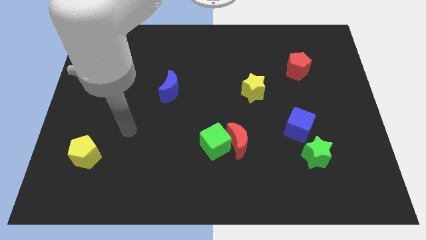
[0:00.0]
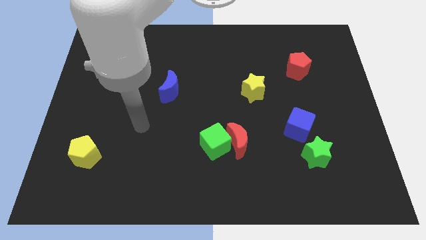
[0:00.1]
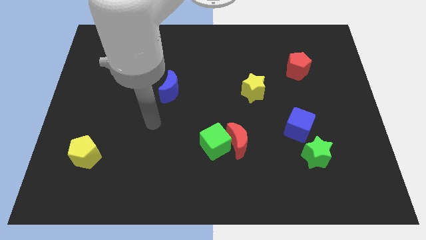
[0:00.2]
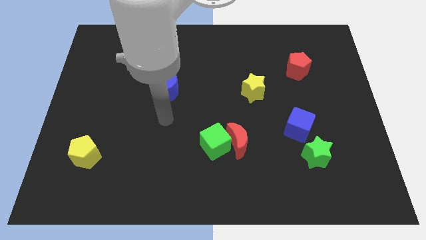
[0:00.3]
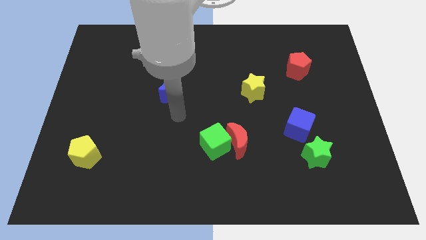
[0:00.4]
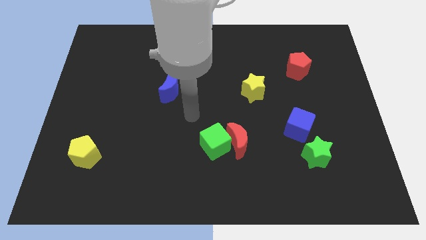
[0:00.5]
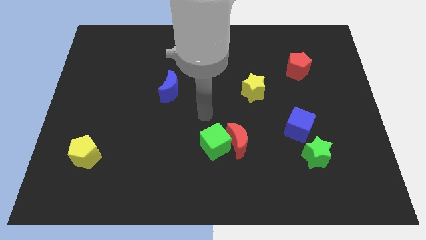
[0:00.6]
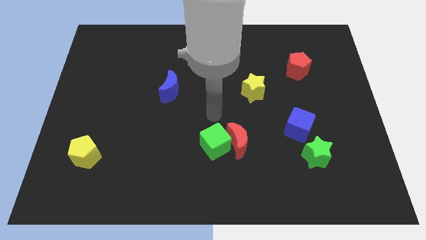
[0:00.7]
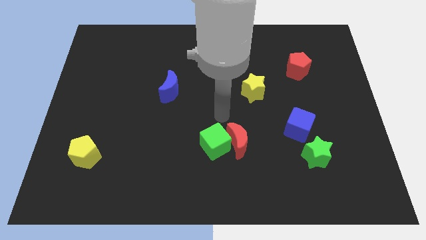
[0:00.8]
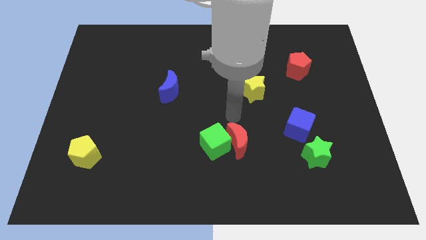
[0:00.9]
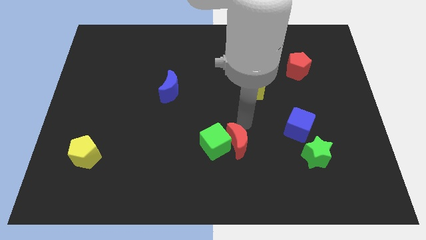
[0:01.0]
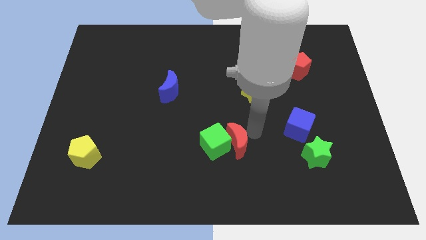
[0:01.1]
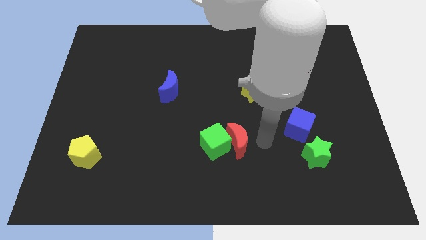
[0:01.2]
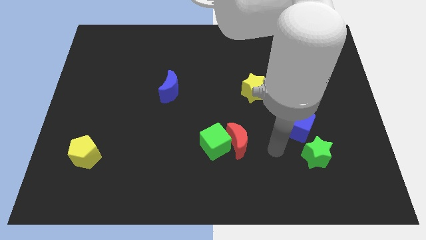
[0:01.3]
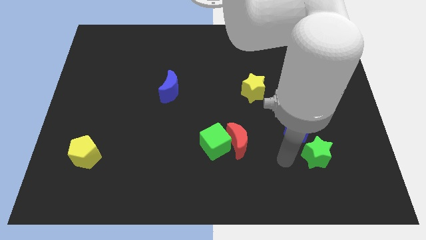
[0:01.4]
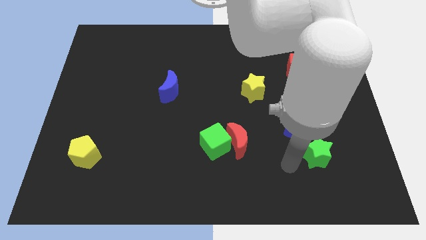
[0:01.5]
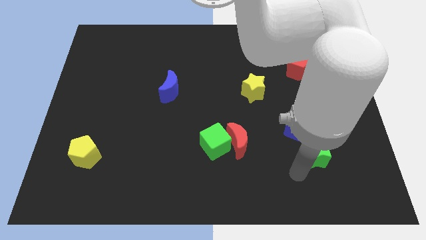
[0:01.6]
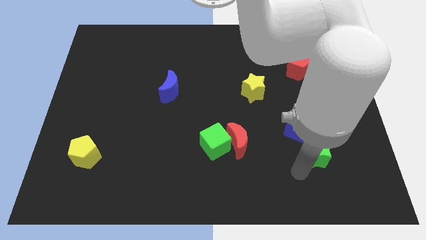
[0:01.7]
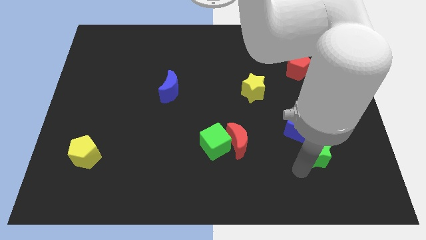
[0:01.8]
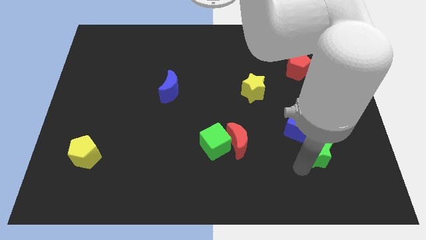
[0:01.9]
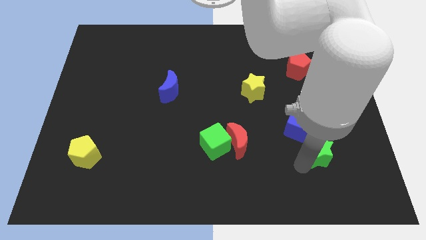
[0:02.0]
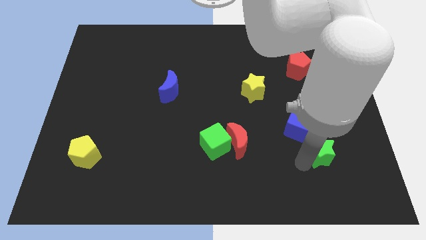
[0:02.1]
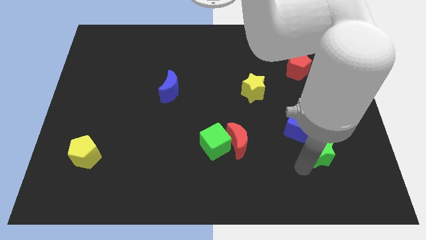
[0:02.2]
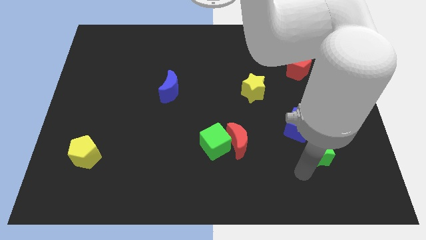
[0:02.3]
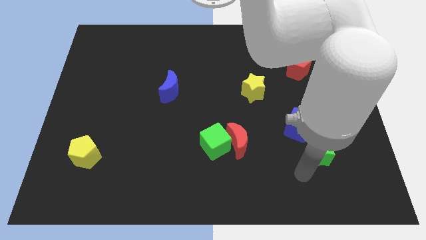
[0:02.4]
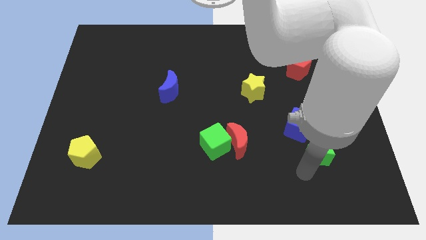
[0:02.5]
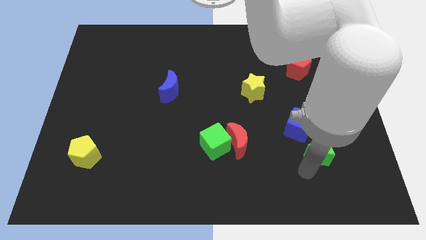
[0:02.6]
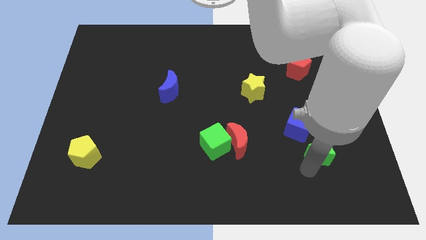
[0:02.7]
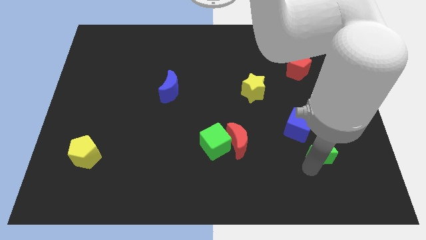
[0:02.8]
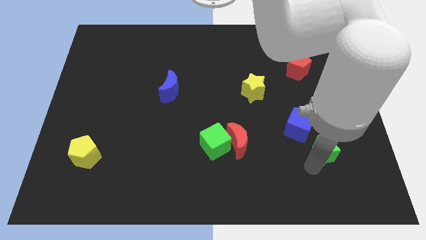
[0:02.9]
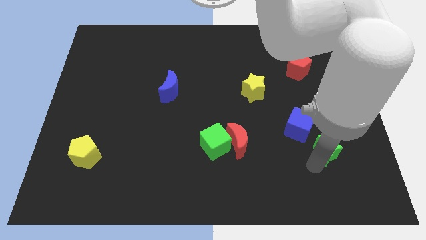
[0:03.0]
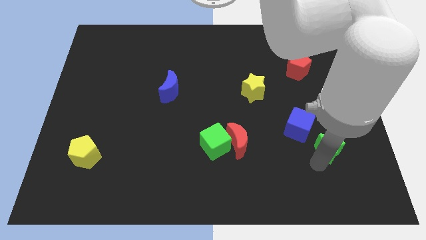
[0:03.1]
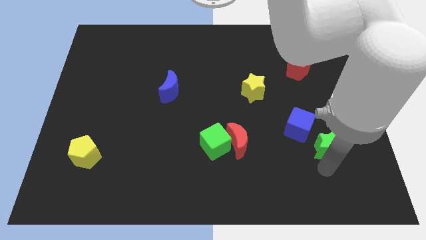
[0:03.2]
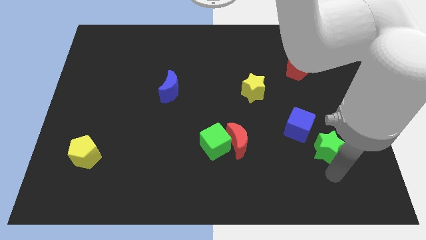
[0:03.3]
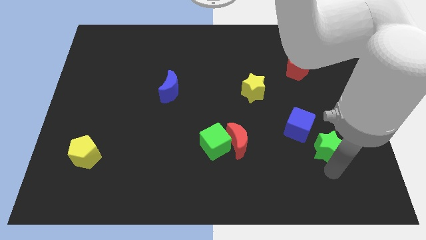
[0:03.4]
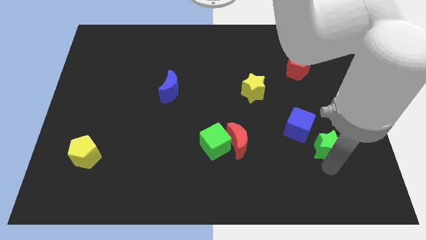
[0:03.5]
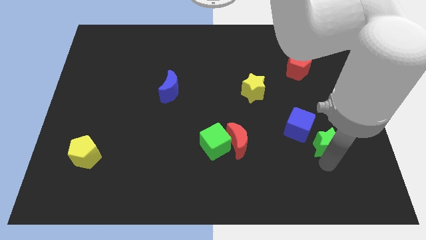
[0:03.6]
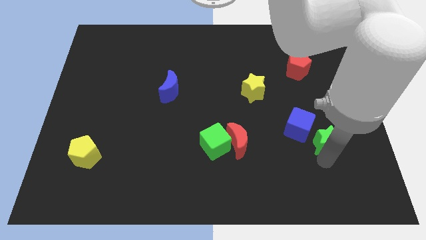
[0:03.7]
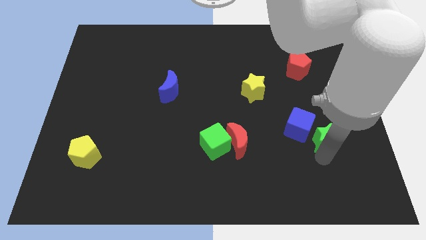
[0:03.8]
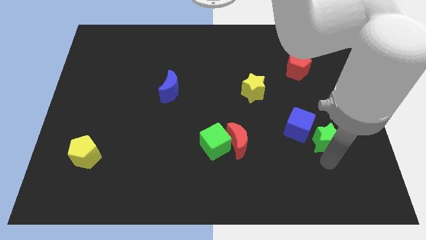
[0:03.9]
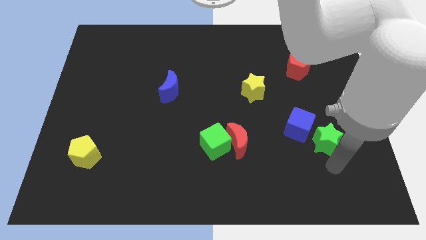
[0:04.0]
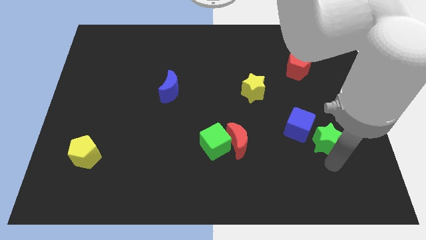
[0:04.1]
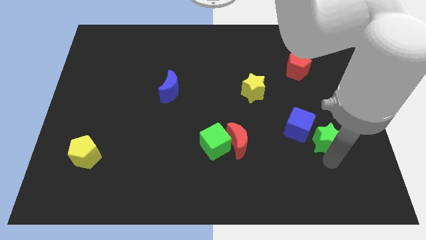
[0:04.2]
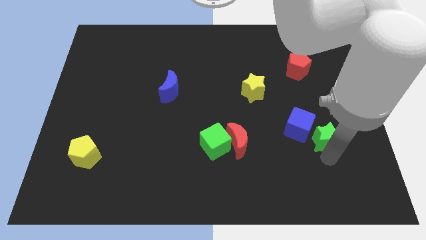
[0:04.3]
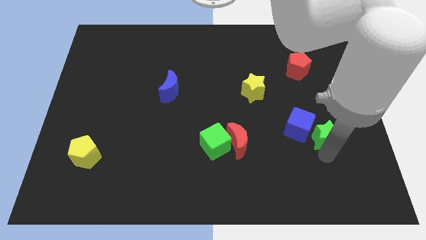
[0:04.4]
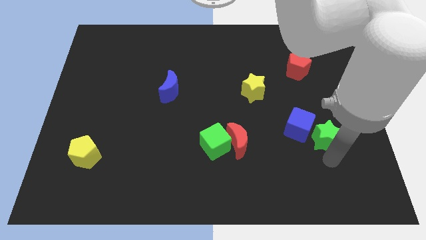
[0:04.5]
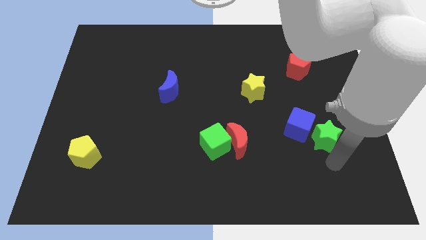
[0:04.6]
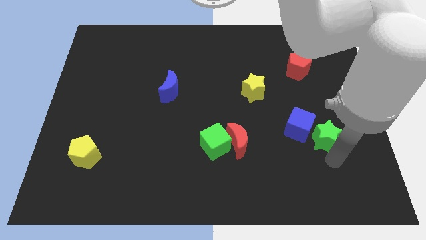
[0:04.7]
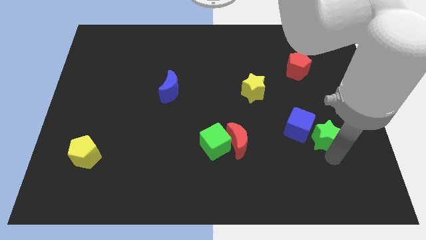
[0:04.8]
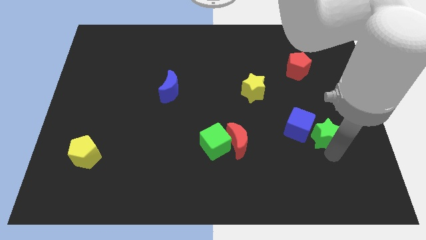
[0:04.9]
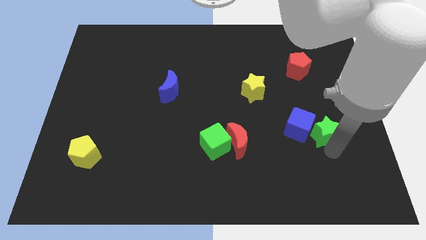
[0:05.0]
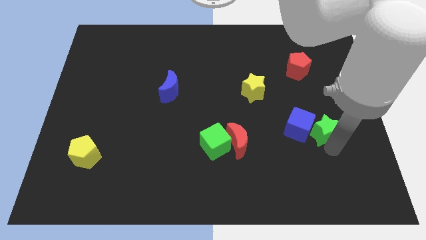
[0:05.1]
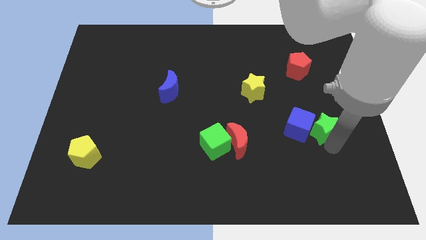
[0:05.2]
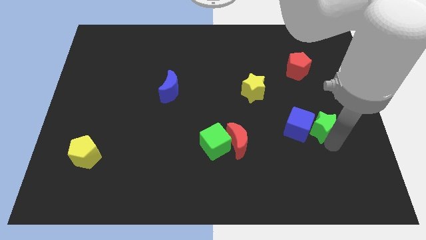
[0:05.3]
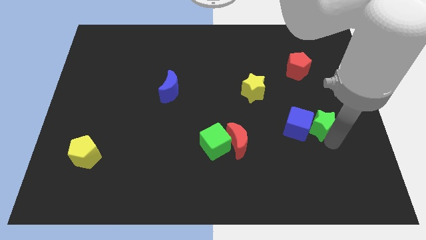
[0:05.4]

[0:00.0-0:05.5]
slightly slide the green star up

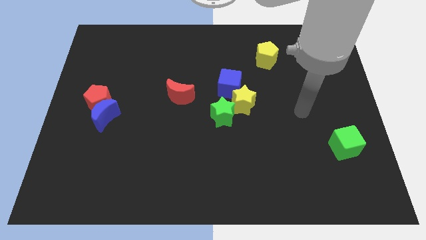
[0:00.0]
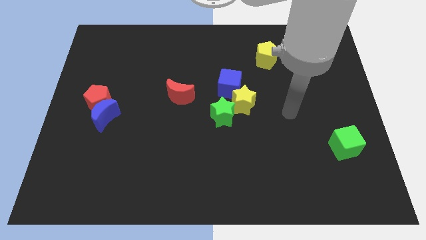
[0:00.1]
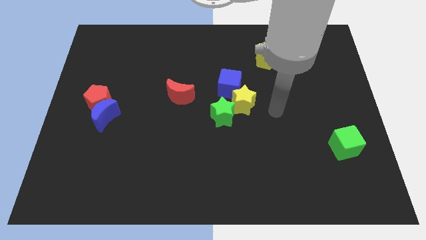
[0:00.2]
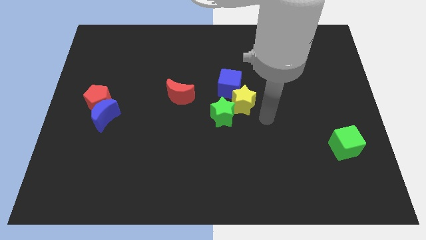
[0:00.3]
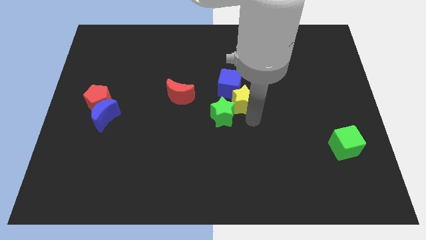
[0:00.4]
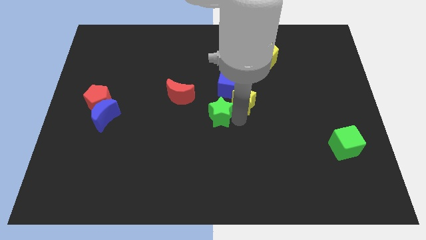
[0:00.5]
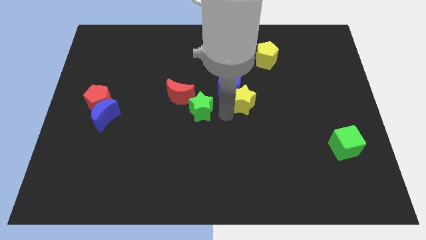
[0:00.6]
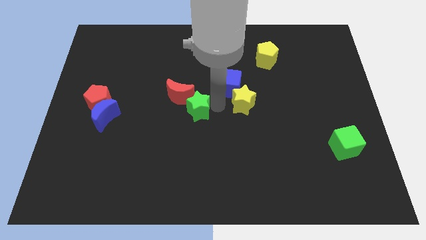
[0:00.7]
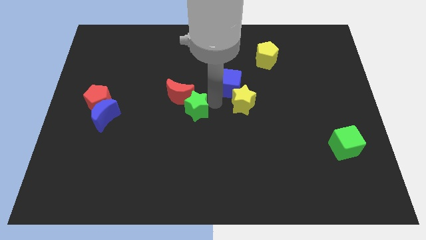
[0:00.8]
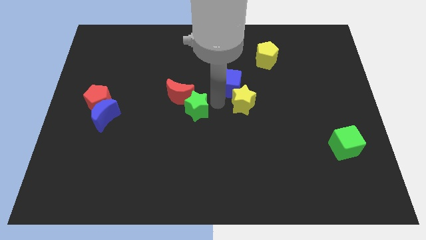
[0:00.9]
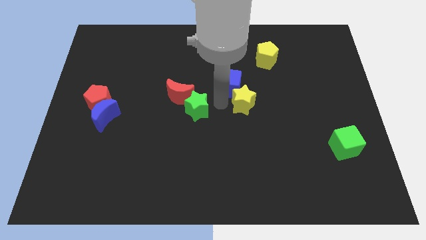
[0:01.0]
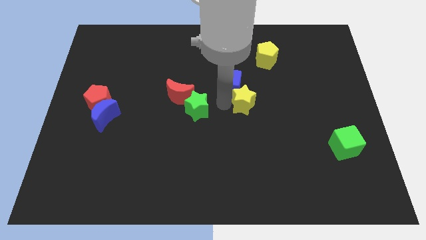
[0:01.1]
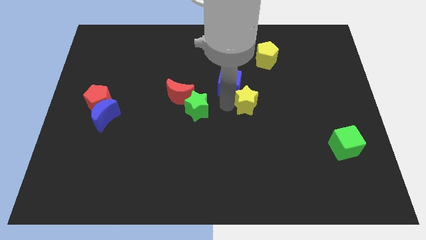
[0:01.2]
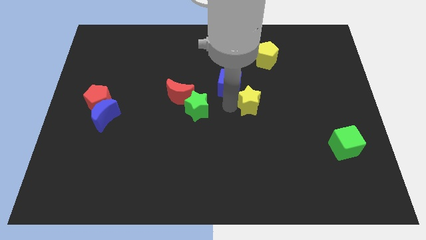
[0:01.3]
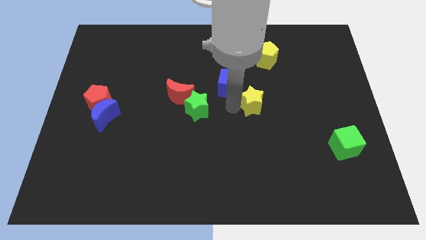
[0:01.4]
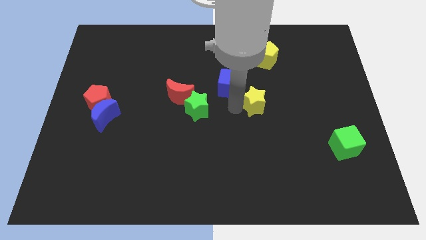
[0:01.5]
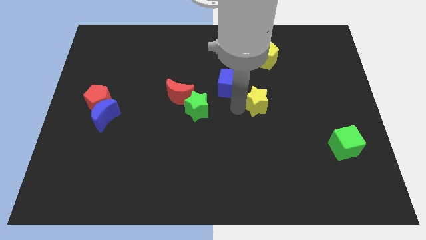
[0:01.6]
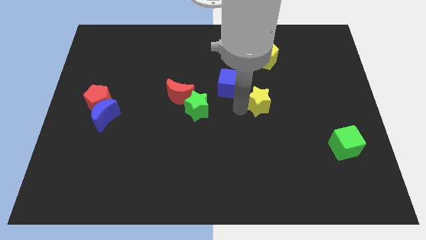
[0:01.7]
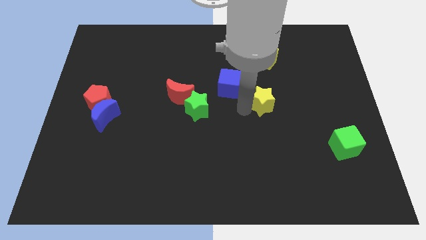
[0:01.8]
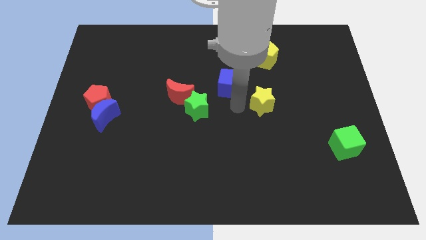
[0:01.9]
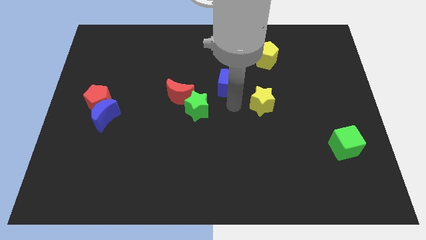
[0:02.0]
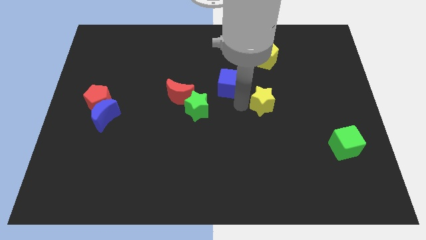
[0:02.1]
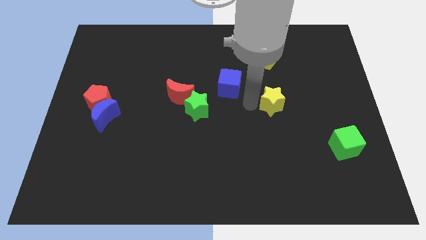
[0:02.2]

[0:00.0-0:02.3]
slide the yellow star a little to the right

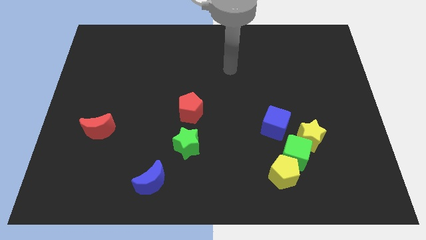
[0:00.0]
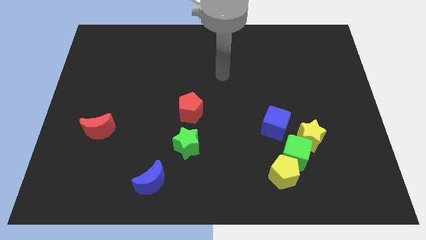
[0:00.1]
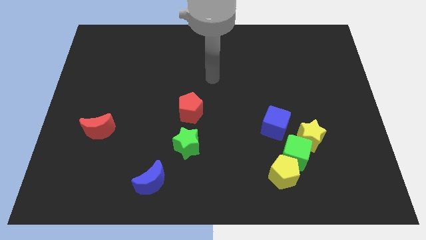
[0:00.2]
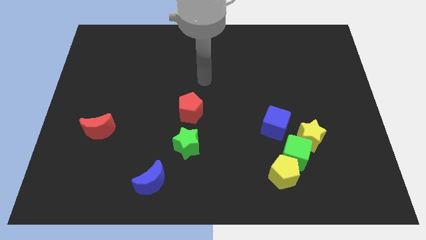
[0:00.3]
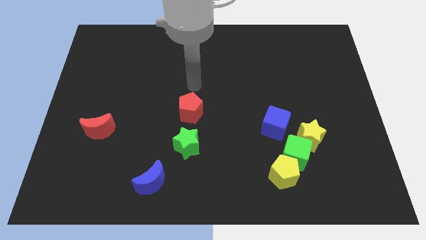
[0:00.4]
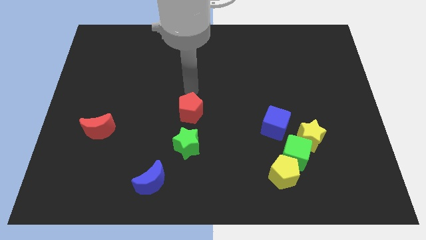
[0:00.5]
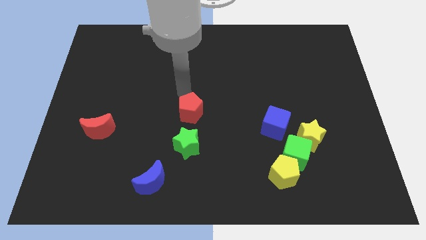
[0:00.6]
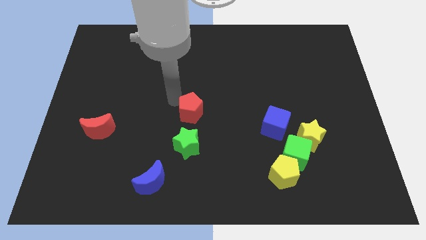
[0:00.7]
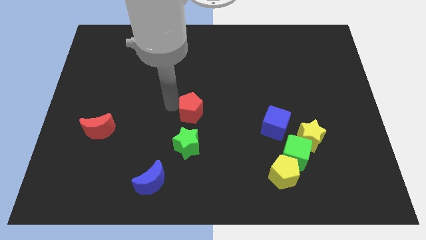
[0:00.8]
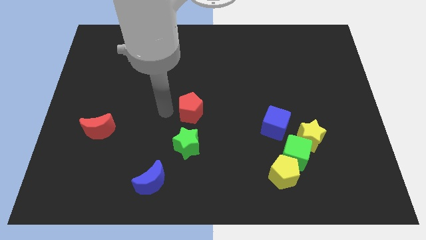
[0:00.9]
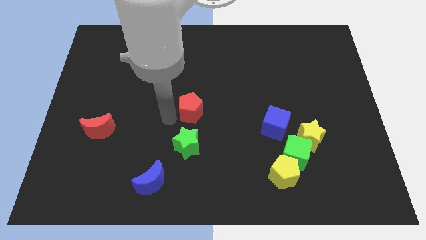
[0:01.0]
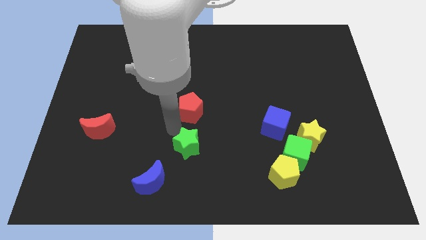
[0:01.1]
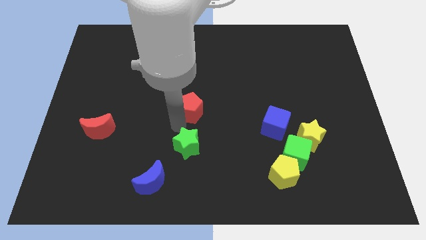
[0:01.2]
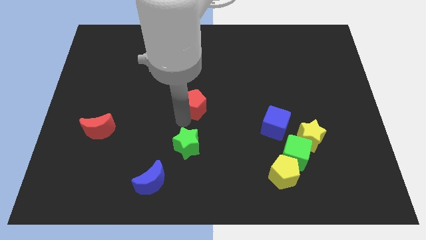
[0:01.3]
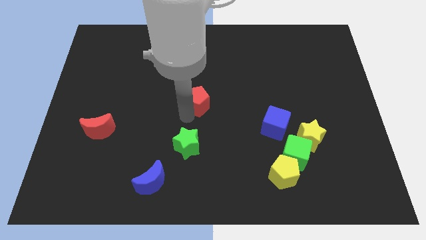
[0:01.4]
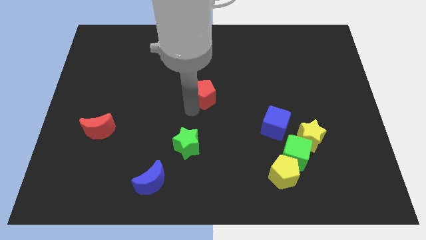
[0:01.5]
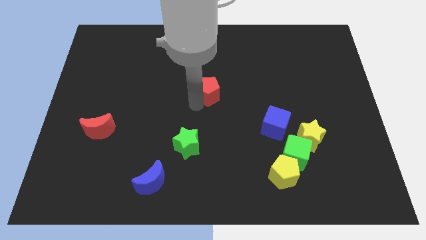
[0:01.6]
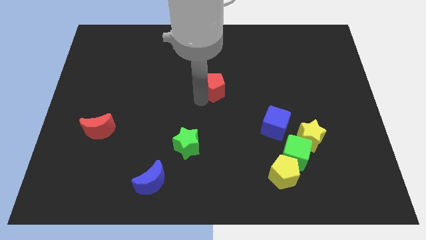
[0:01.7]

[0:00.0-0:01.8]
slightly push the red pentagon up and right diagonally
